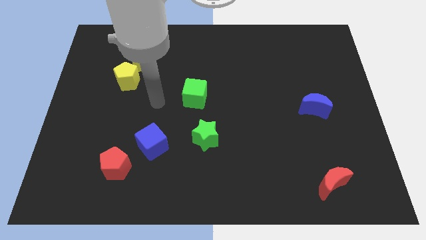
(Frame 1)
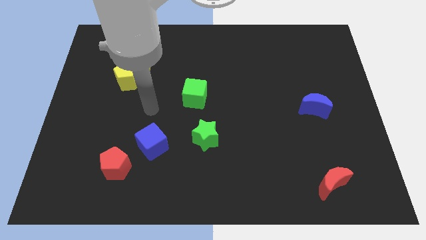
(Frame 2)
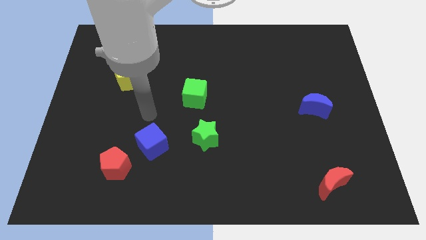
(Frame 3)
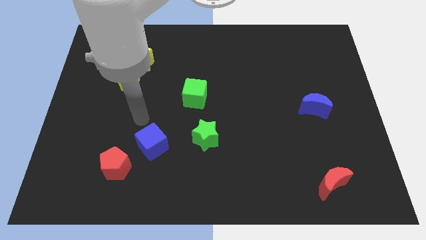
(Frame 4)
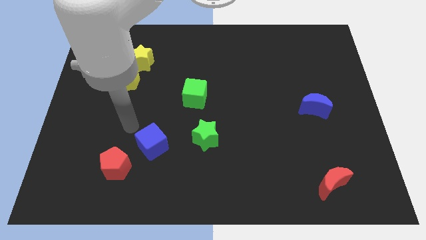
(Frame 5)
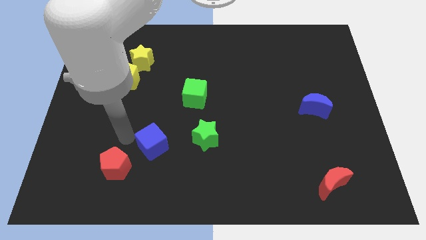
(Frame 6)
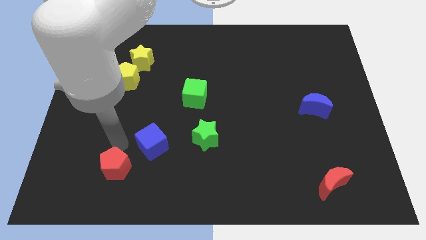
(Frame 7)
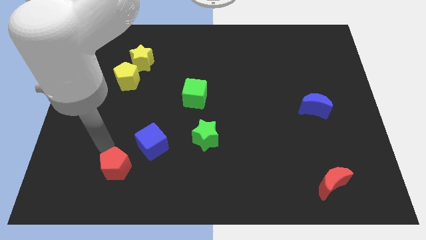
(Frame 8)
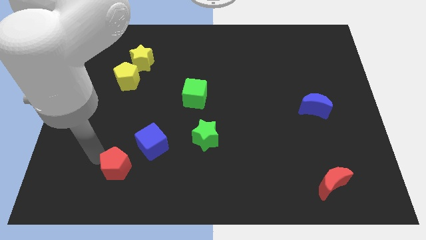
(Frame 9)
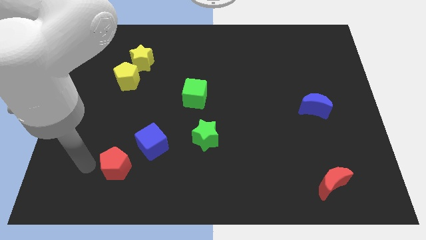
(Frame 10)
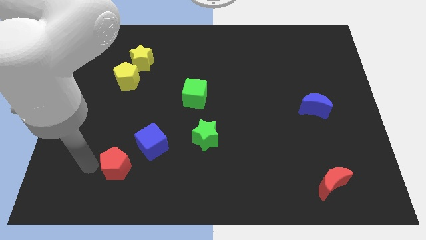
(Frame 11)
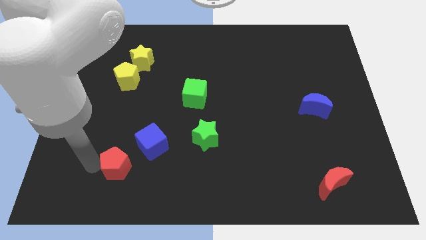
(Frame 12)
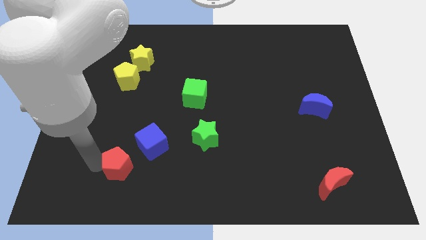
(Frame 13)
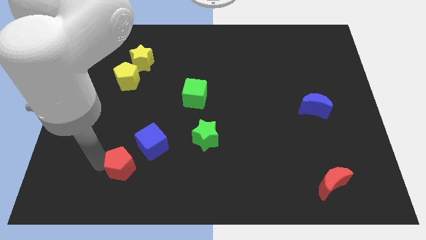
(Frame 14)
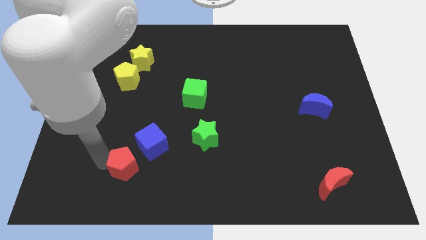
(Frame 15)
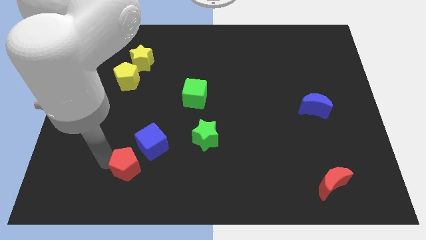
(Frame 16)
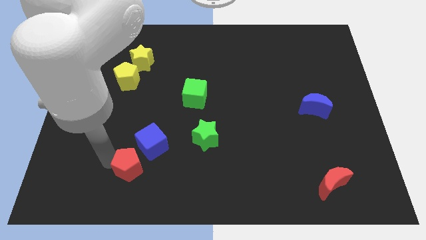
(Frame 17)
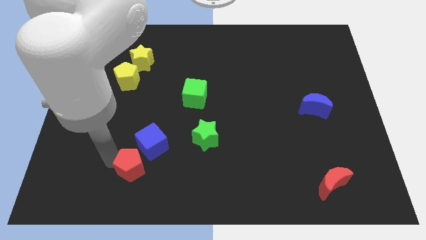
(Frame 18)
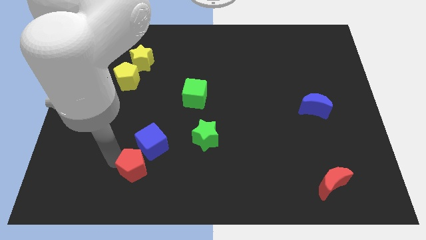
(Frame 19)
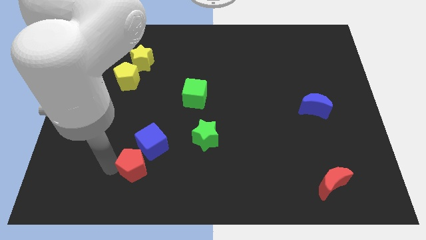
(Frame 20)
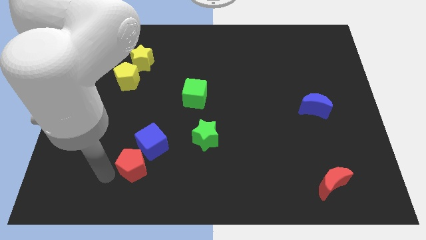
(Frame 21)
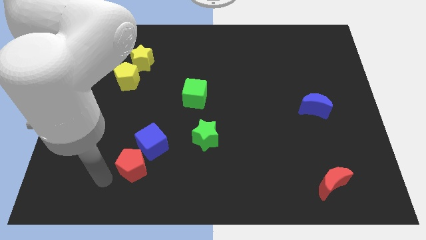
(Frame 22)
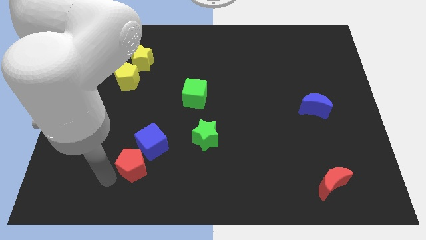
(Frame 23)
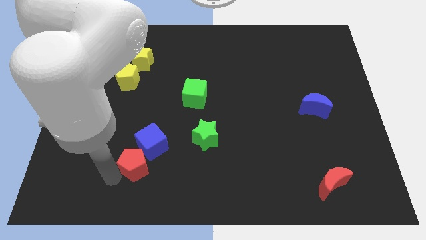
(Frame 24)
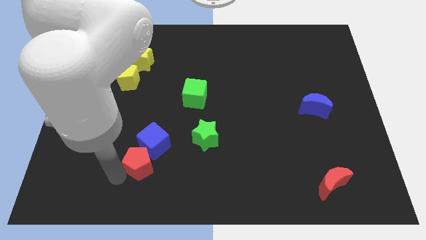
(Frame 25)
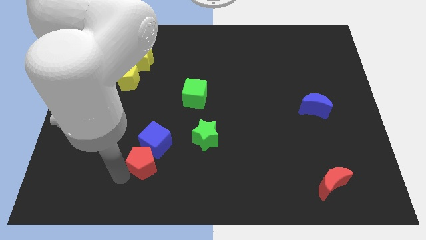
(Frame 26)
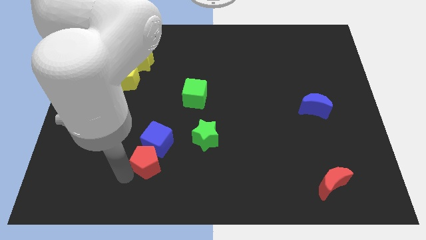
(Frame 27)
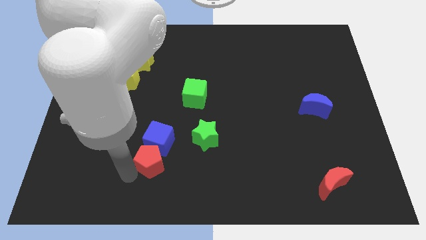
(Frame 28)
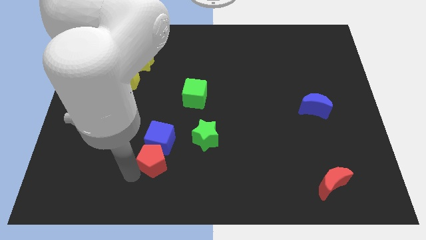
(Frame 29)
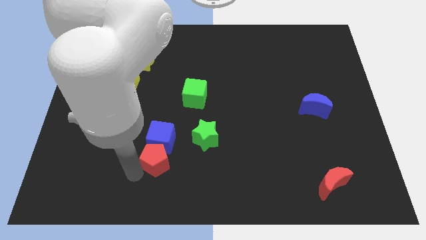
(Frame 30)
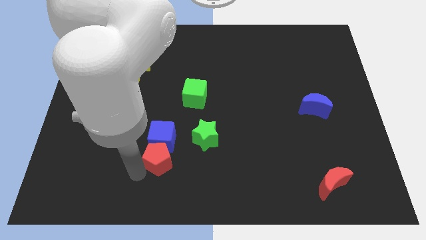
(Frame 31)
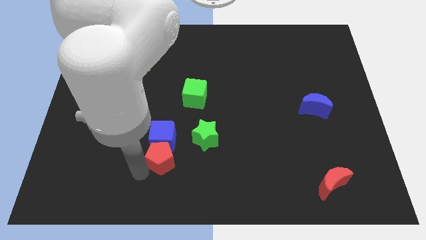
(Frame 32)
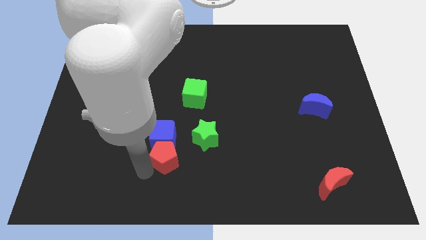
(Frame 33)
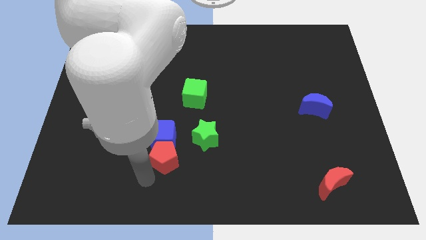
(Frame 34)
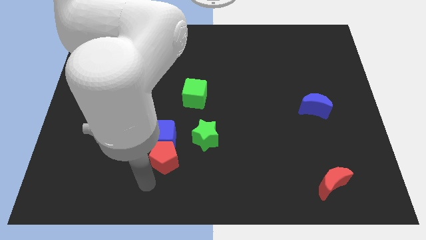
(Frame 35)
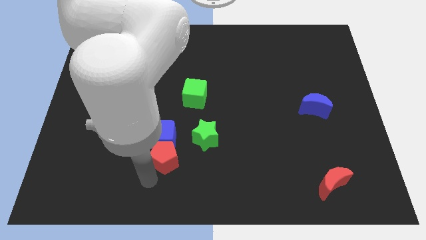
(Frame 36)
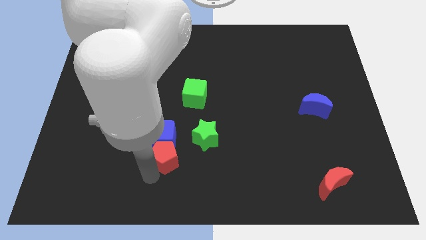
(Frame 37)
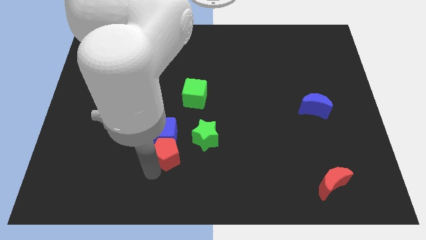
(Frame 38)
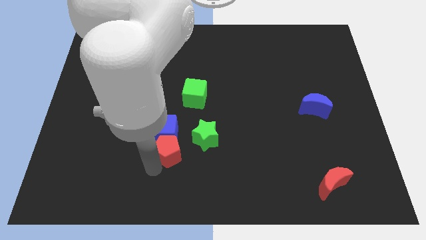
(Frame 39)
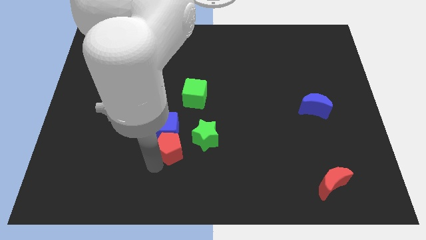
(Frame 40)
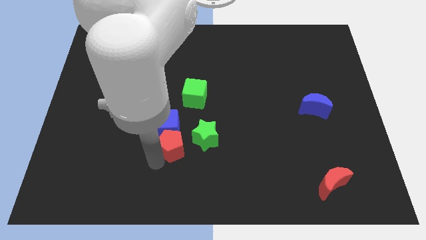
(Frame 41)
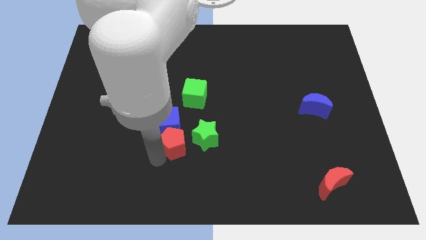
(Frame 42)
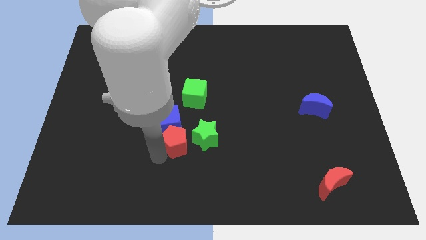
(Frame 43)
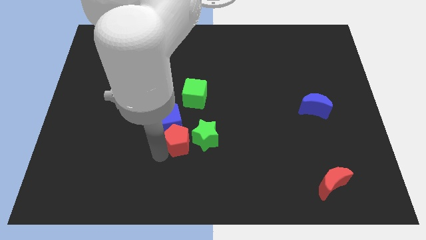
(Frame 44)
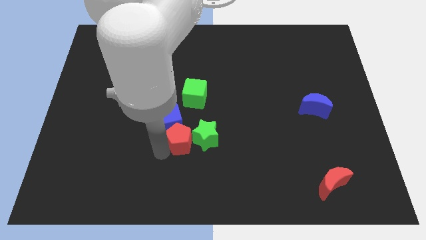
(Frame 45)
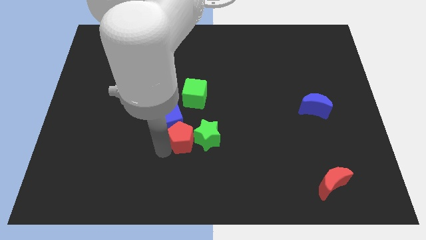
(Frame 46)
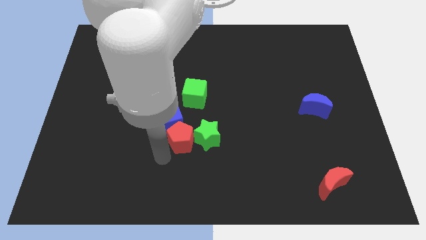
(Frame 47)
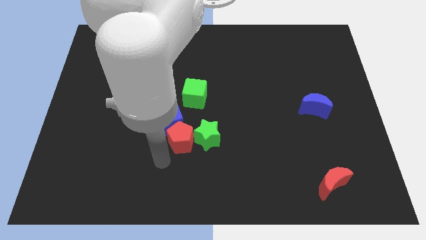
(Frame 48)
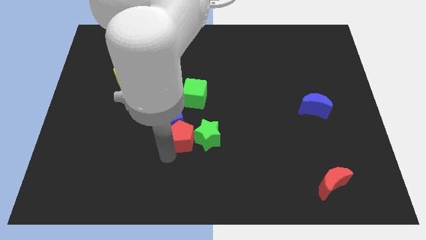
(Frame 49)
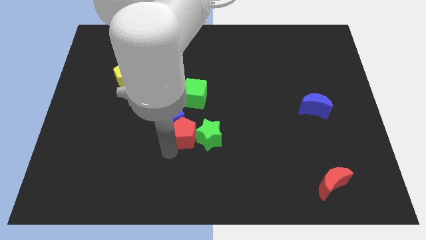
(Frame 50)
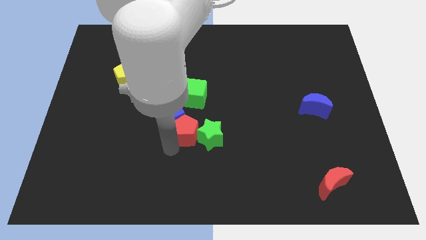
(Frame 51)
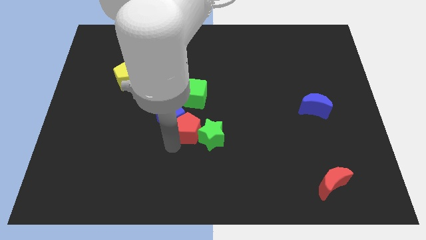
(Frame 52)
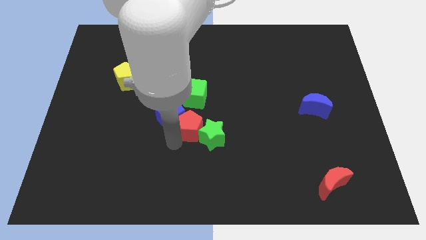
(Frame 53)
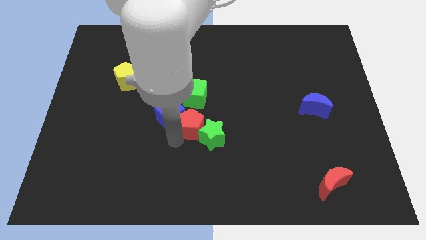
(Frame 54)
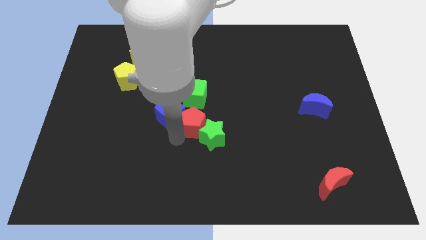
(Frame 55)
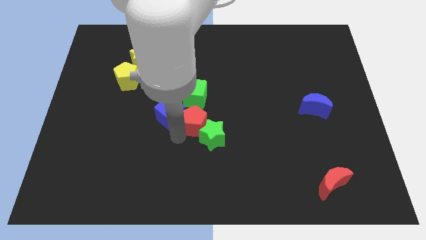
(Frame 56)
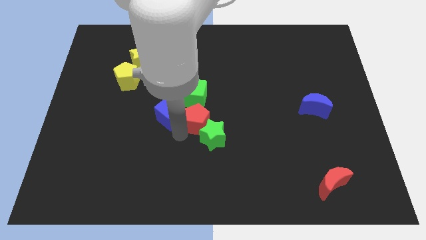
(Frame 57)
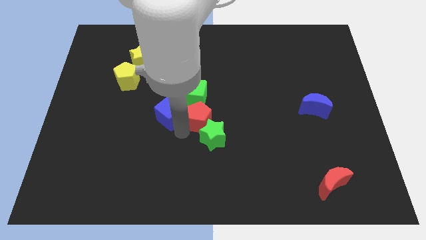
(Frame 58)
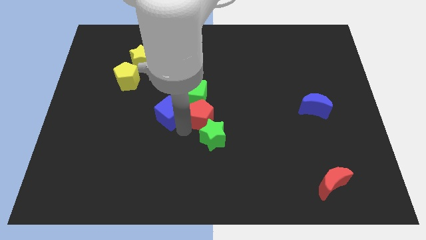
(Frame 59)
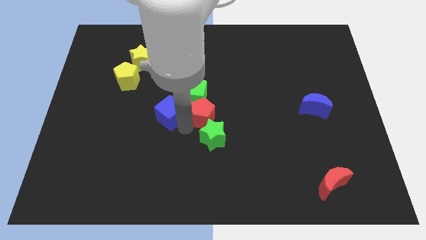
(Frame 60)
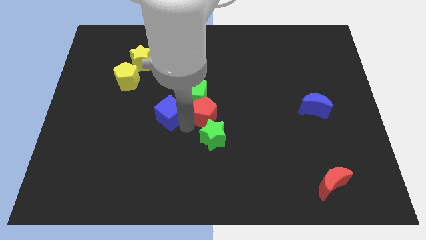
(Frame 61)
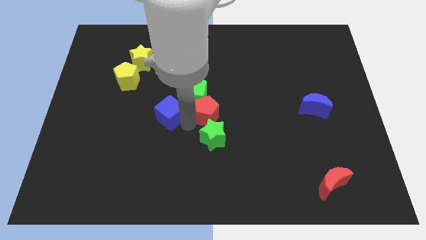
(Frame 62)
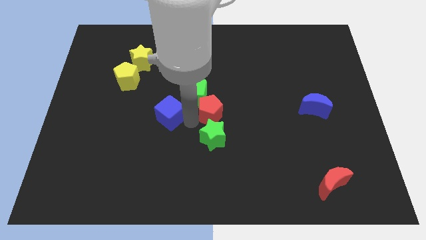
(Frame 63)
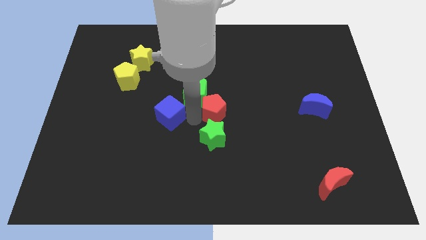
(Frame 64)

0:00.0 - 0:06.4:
slide the red pentagon to the right of the green cube
